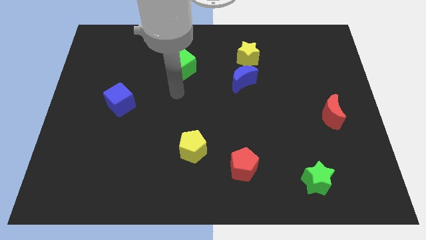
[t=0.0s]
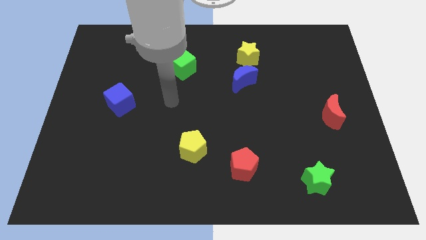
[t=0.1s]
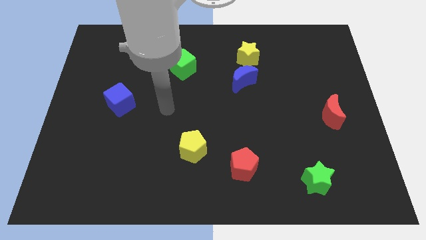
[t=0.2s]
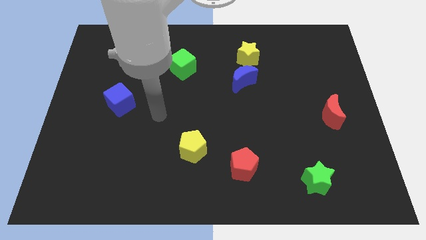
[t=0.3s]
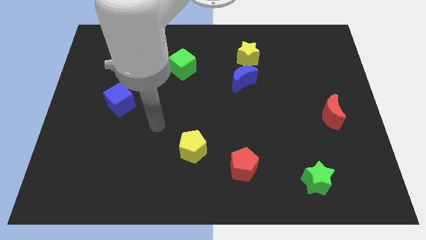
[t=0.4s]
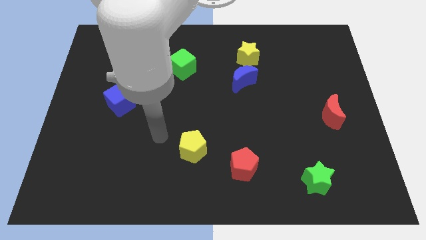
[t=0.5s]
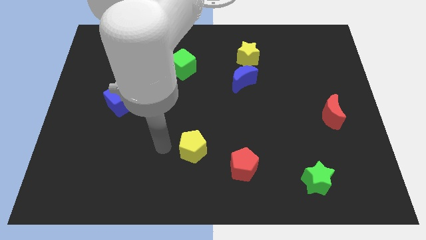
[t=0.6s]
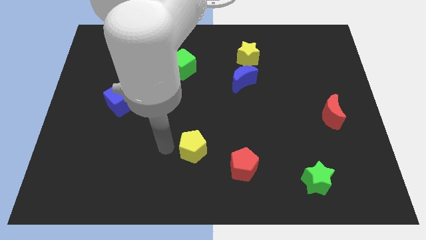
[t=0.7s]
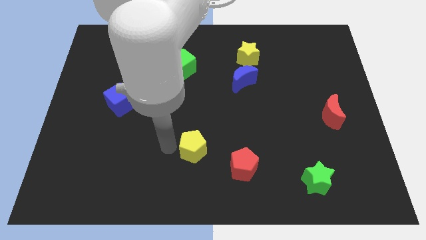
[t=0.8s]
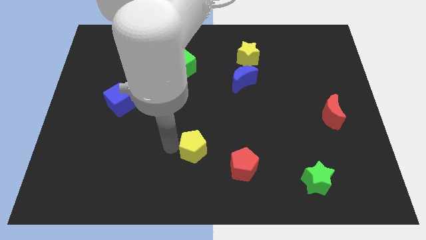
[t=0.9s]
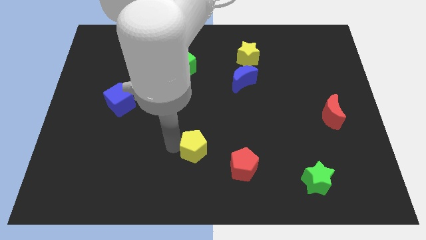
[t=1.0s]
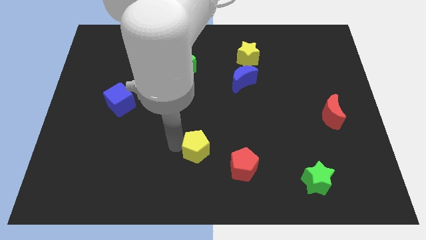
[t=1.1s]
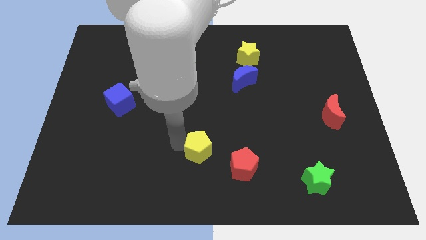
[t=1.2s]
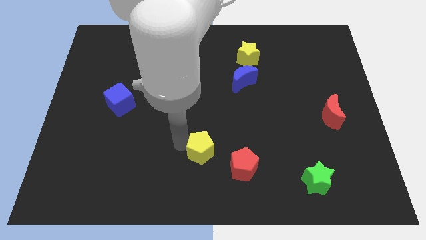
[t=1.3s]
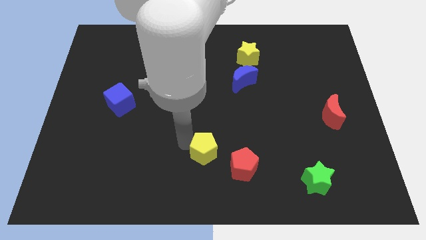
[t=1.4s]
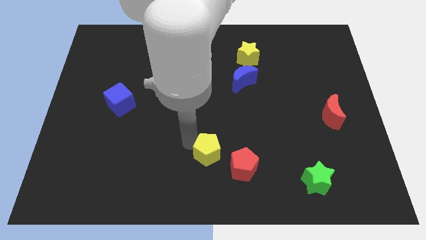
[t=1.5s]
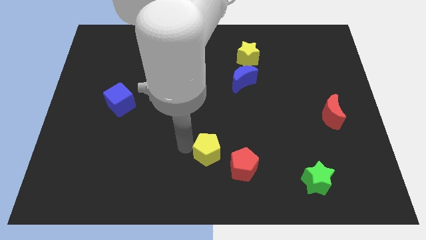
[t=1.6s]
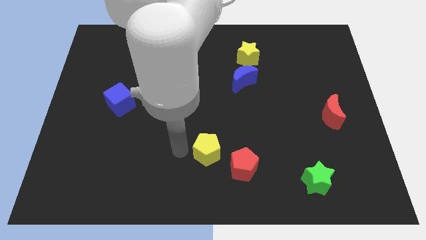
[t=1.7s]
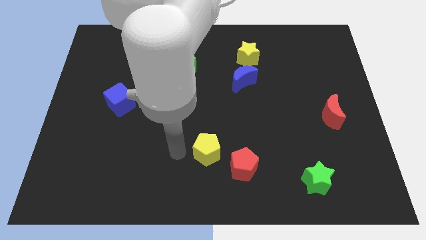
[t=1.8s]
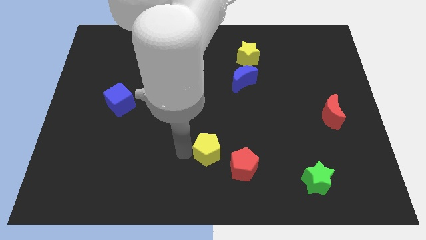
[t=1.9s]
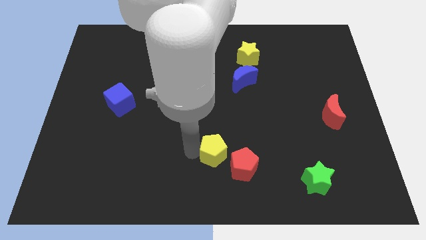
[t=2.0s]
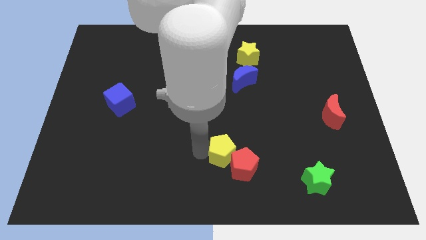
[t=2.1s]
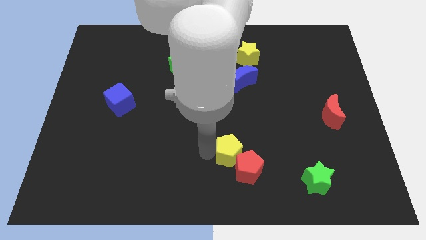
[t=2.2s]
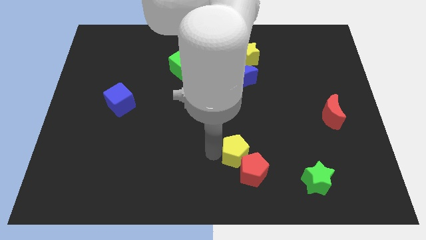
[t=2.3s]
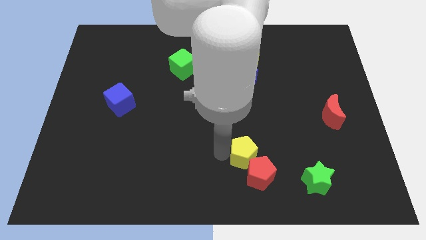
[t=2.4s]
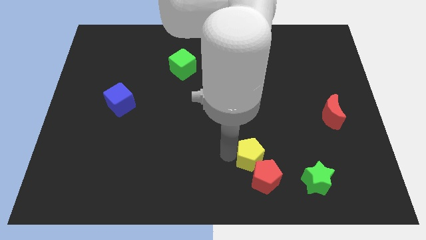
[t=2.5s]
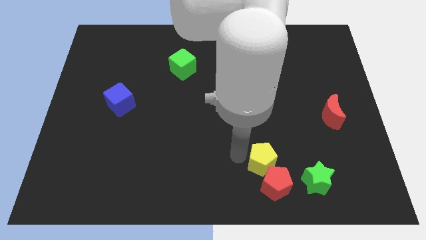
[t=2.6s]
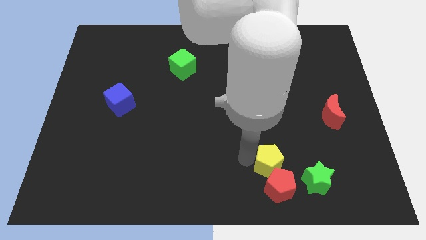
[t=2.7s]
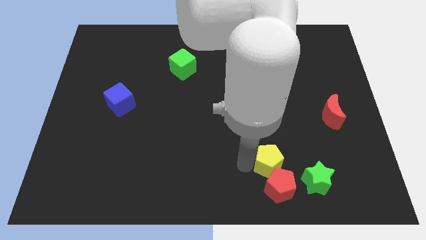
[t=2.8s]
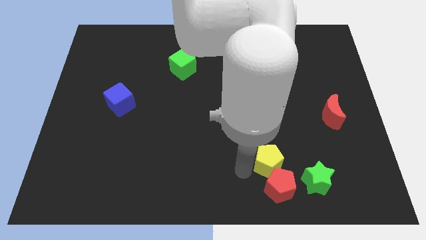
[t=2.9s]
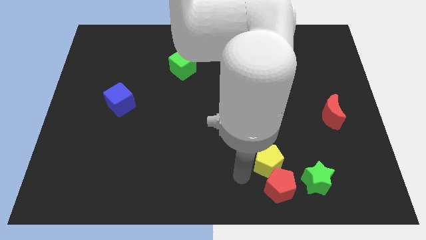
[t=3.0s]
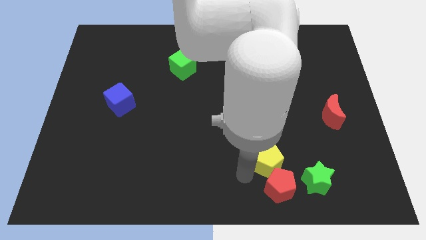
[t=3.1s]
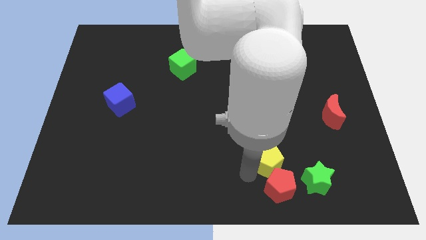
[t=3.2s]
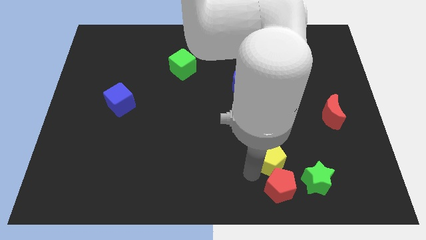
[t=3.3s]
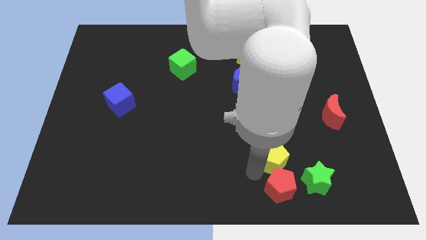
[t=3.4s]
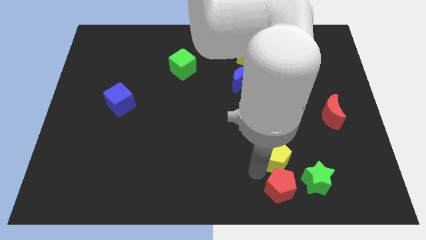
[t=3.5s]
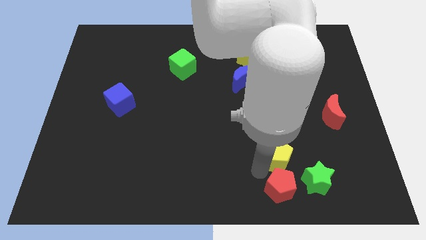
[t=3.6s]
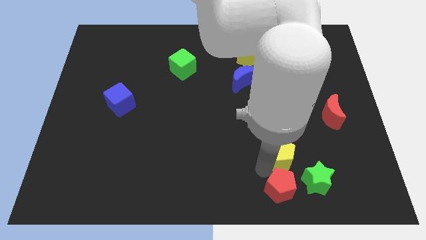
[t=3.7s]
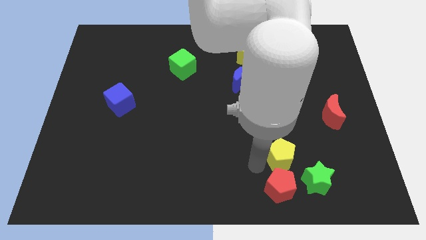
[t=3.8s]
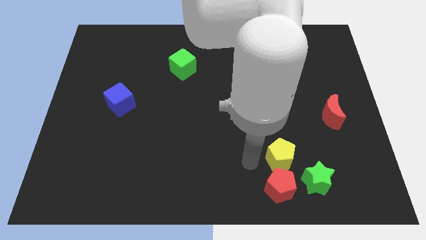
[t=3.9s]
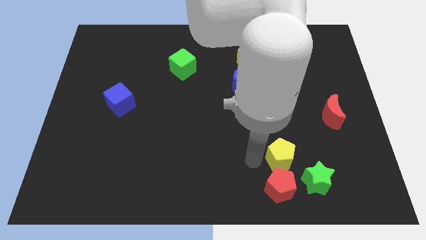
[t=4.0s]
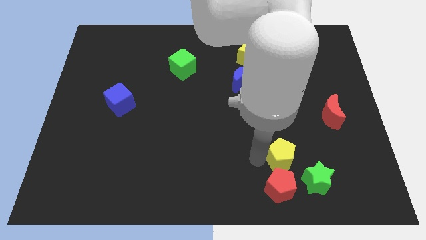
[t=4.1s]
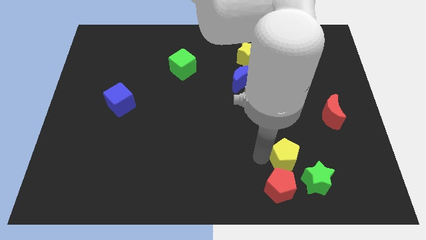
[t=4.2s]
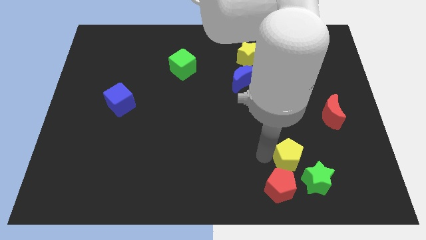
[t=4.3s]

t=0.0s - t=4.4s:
slide the yellow pentagon right

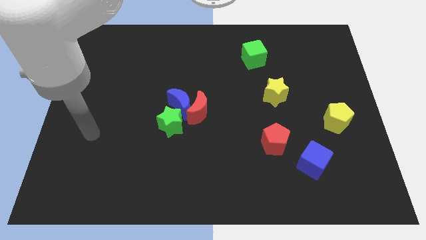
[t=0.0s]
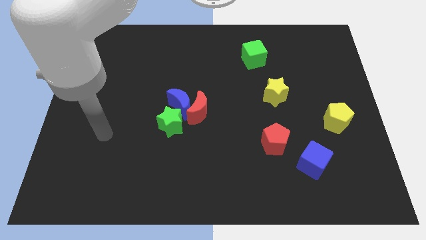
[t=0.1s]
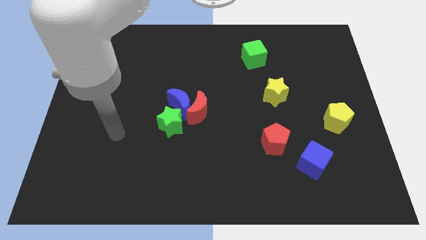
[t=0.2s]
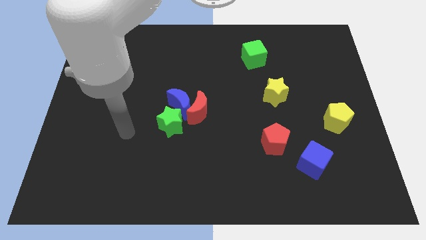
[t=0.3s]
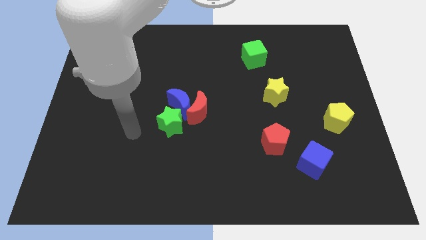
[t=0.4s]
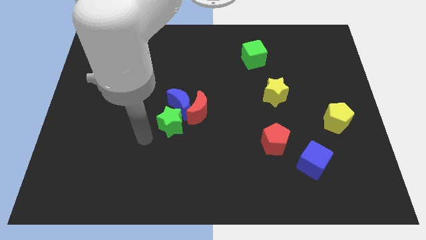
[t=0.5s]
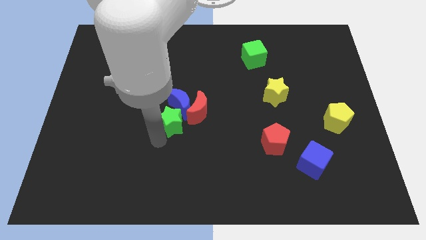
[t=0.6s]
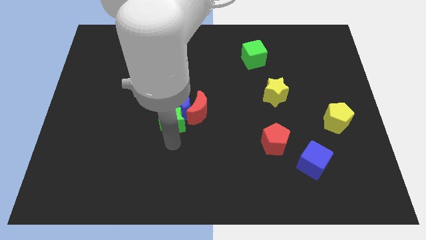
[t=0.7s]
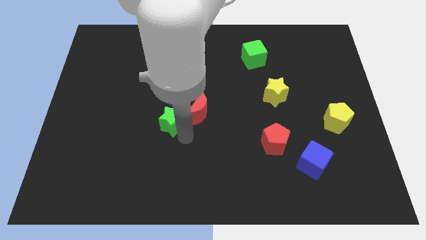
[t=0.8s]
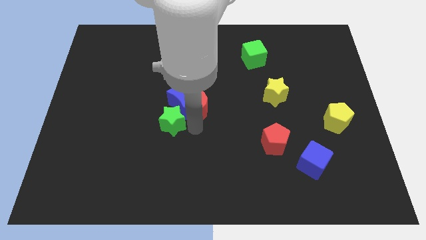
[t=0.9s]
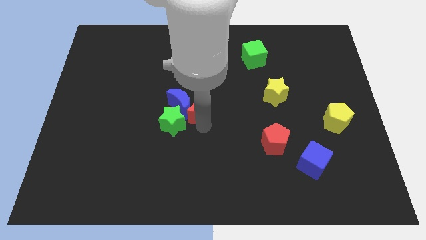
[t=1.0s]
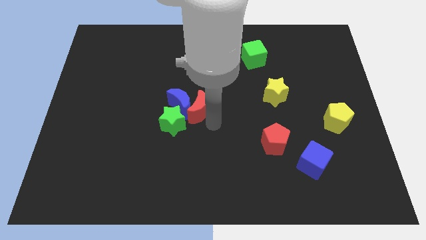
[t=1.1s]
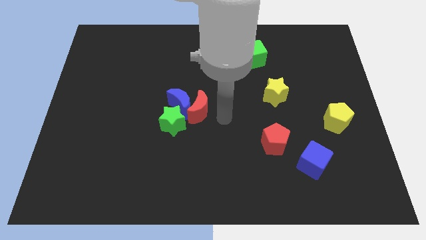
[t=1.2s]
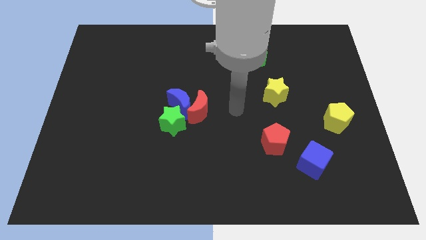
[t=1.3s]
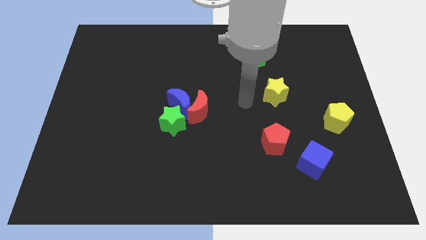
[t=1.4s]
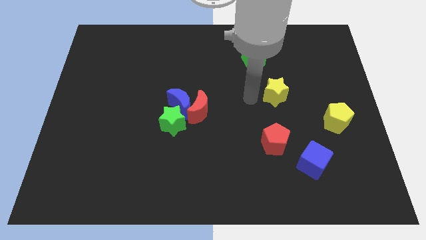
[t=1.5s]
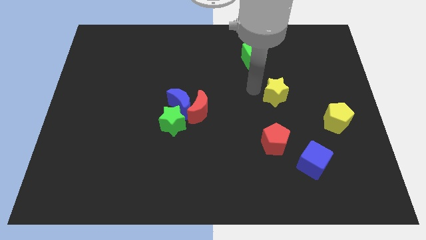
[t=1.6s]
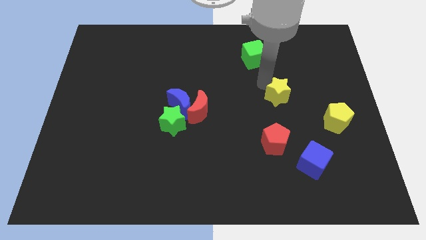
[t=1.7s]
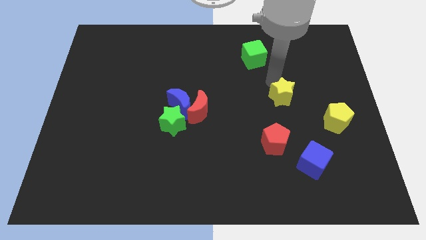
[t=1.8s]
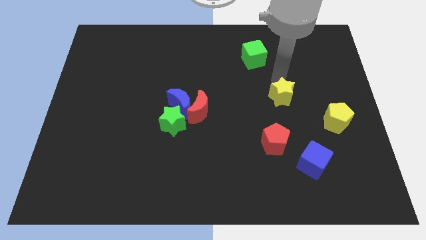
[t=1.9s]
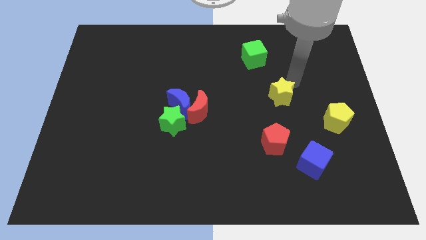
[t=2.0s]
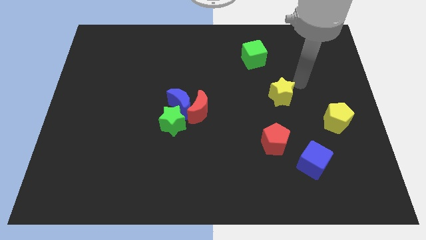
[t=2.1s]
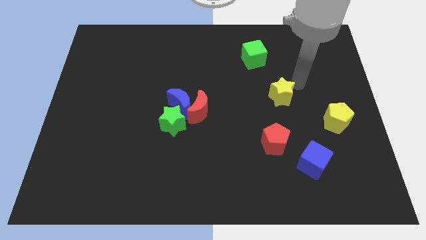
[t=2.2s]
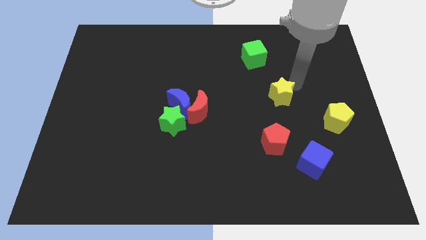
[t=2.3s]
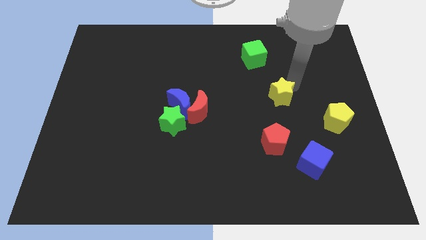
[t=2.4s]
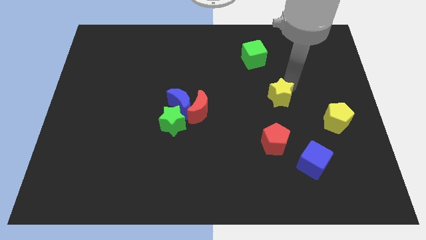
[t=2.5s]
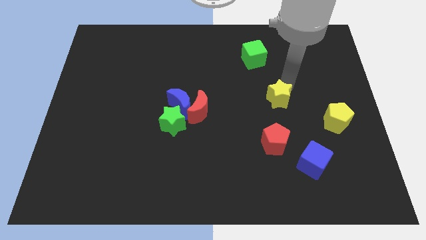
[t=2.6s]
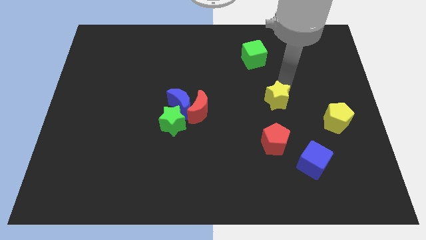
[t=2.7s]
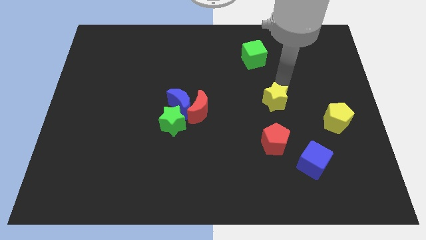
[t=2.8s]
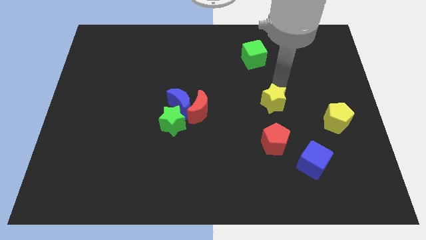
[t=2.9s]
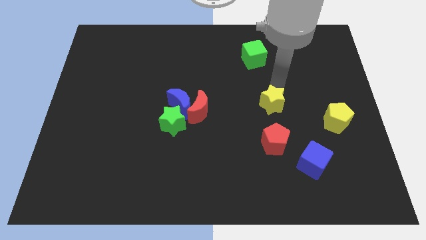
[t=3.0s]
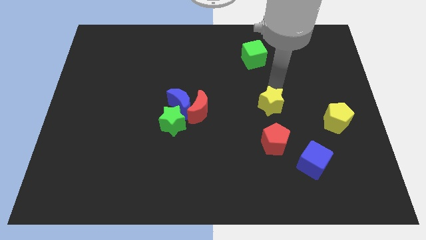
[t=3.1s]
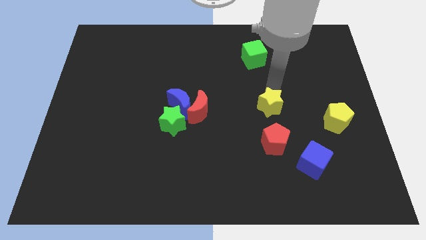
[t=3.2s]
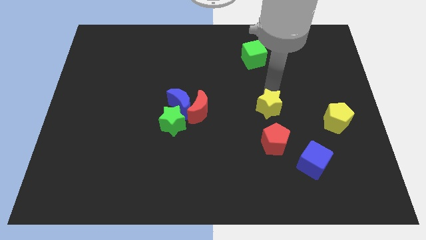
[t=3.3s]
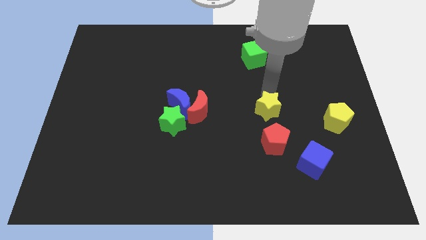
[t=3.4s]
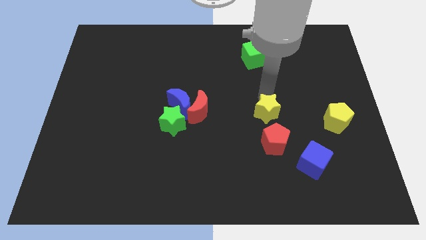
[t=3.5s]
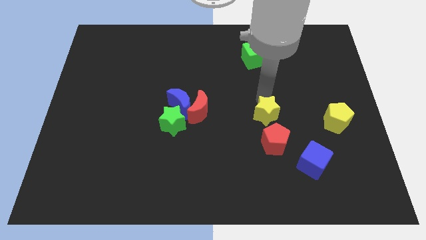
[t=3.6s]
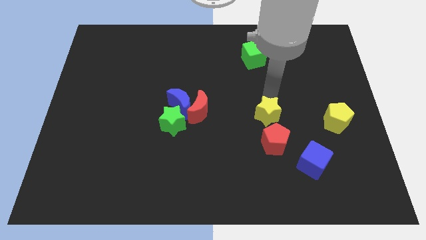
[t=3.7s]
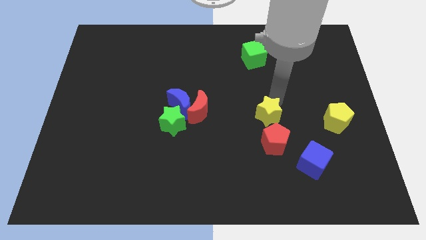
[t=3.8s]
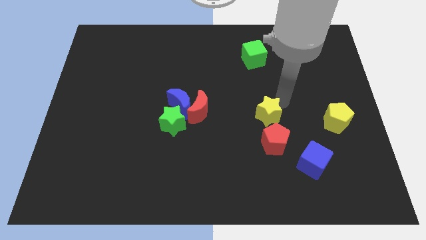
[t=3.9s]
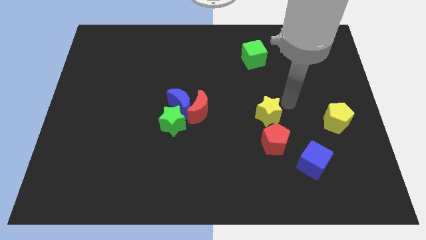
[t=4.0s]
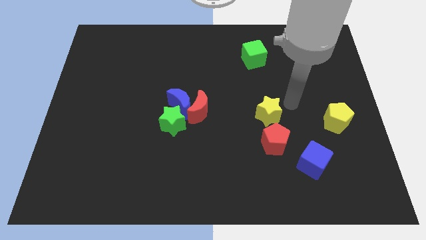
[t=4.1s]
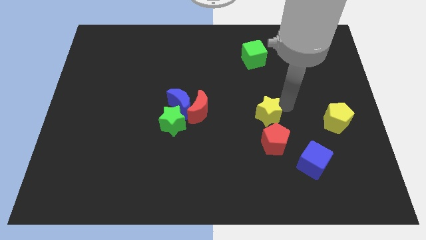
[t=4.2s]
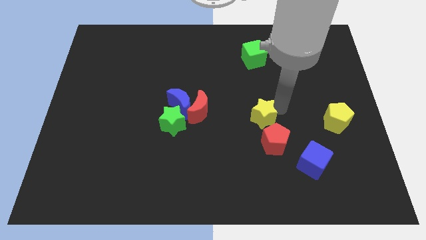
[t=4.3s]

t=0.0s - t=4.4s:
push the yellow star downwards and to the left somewhat
